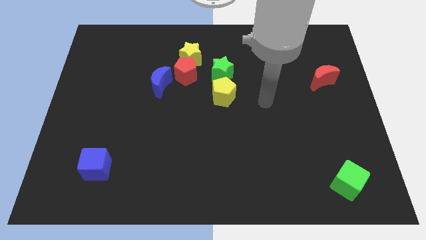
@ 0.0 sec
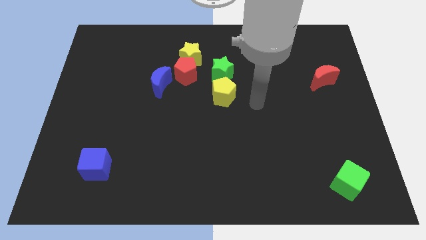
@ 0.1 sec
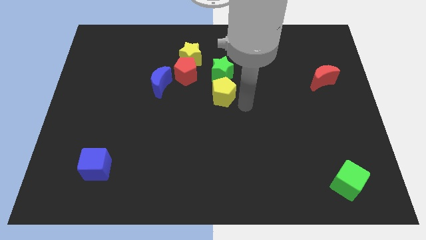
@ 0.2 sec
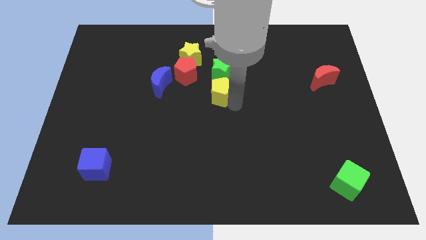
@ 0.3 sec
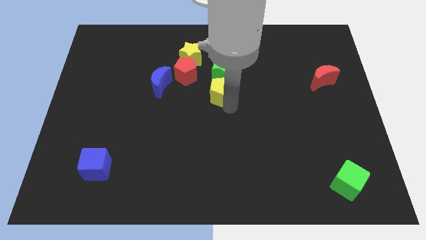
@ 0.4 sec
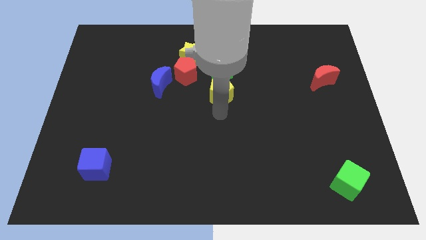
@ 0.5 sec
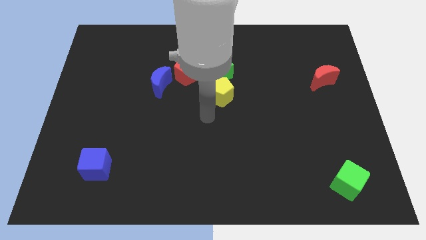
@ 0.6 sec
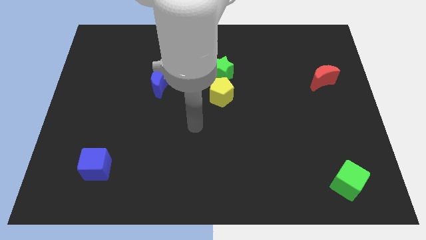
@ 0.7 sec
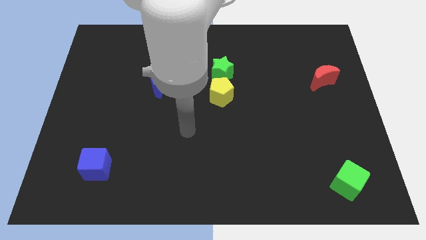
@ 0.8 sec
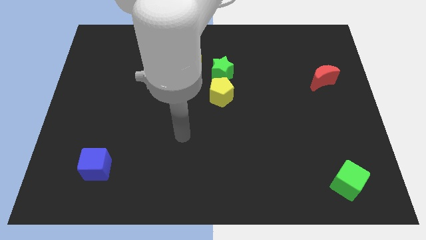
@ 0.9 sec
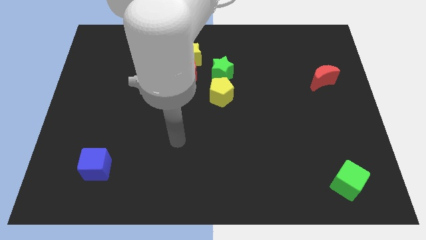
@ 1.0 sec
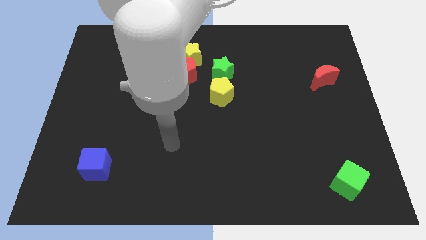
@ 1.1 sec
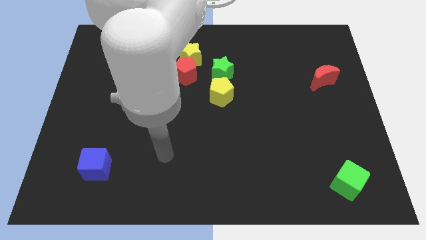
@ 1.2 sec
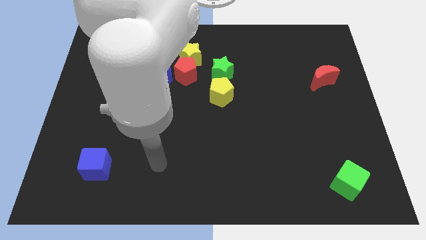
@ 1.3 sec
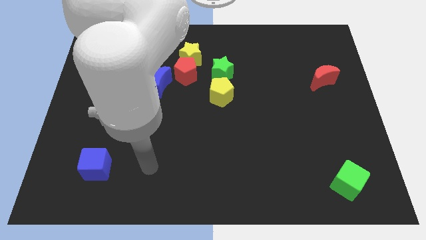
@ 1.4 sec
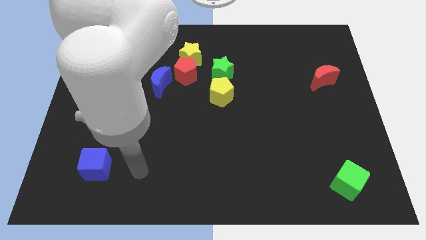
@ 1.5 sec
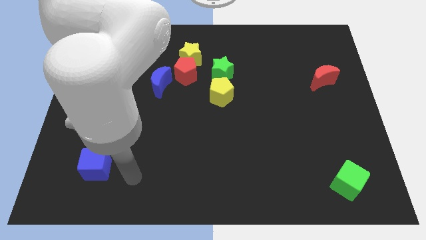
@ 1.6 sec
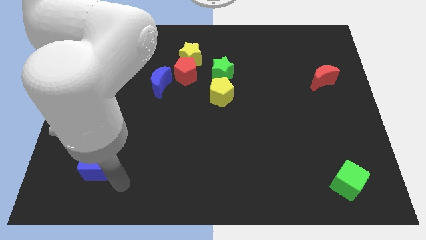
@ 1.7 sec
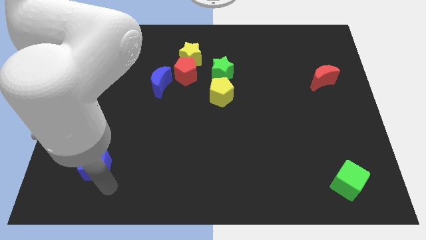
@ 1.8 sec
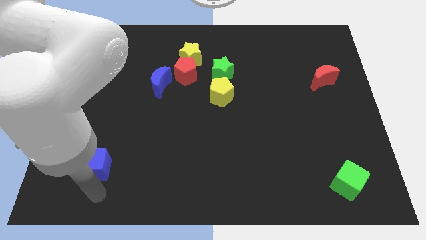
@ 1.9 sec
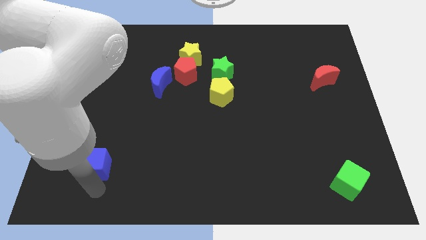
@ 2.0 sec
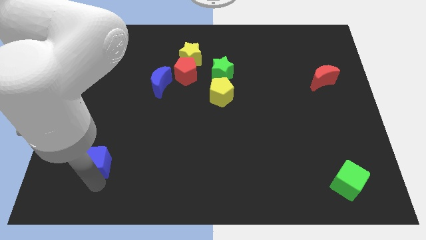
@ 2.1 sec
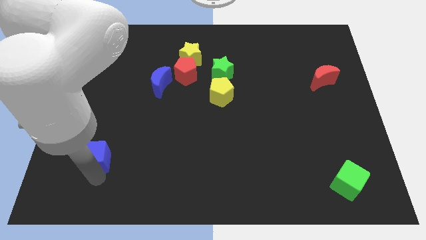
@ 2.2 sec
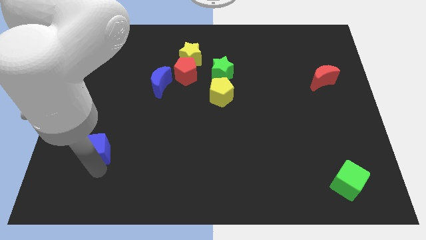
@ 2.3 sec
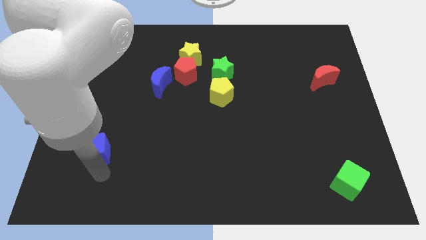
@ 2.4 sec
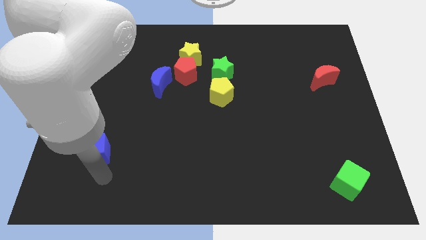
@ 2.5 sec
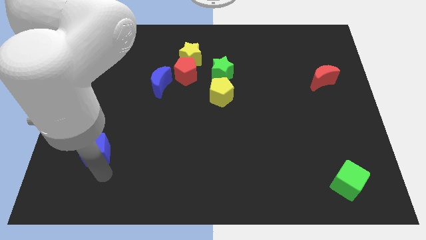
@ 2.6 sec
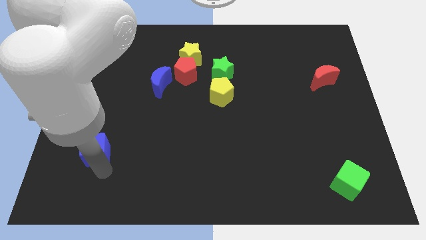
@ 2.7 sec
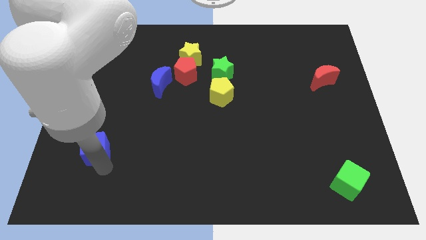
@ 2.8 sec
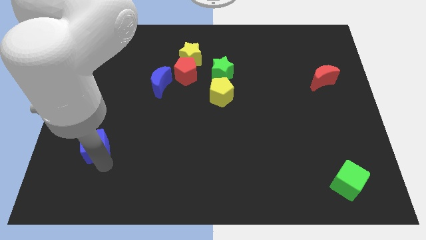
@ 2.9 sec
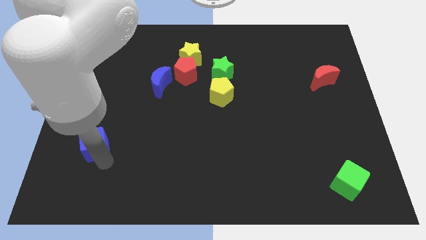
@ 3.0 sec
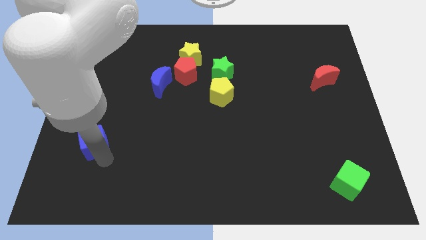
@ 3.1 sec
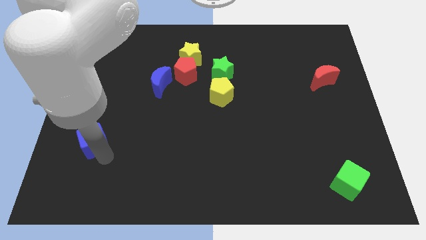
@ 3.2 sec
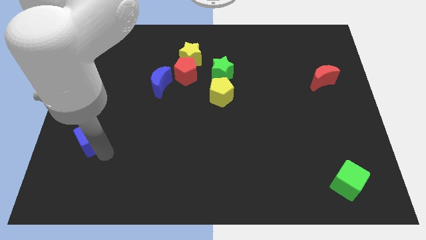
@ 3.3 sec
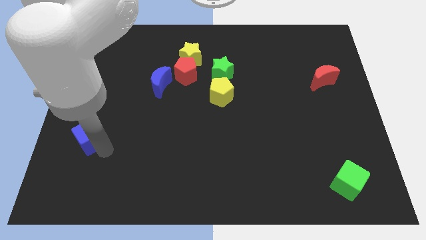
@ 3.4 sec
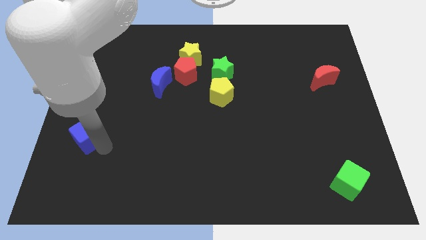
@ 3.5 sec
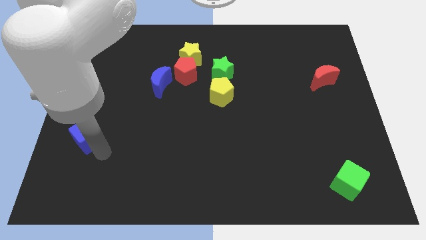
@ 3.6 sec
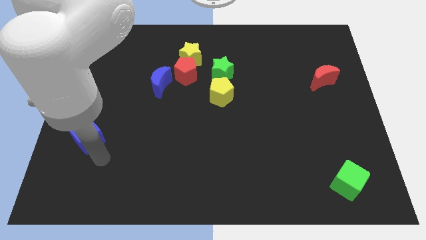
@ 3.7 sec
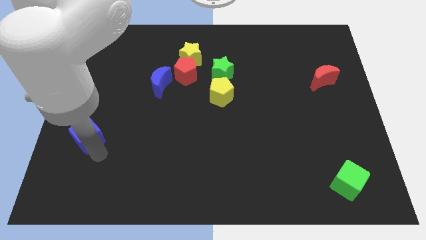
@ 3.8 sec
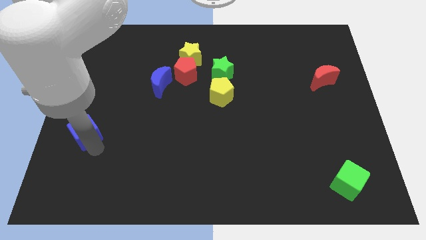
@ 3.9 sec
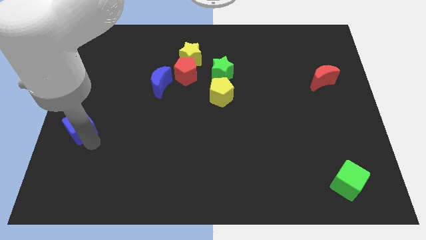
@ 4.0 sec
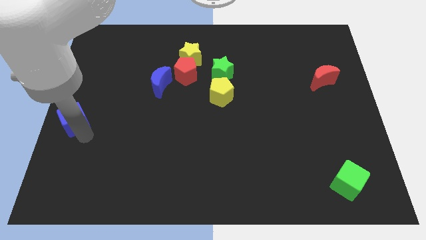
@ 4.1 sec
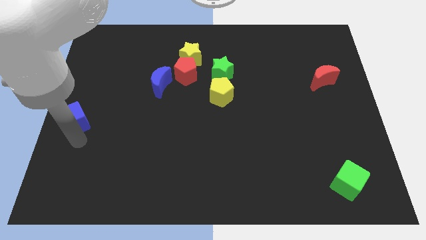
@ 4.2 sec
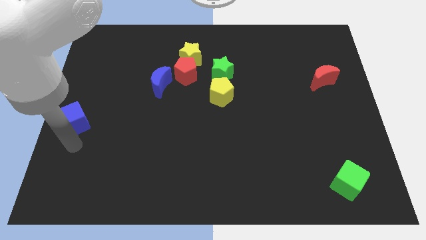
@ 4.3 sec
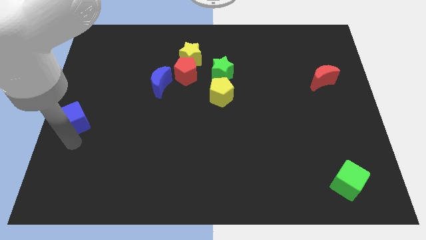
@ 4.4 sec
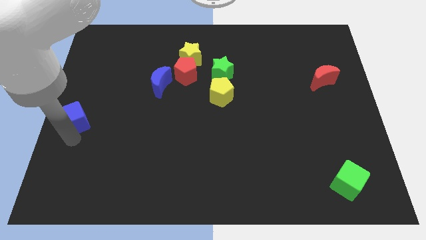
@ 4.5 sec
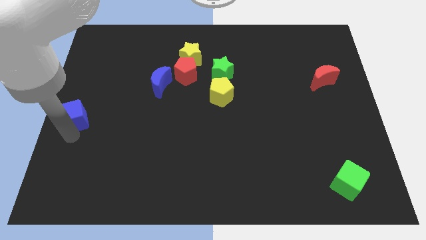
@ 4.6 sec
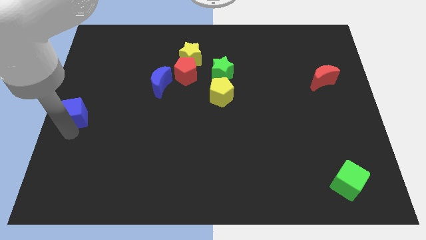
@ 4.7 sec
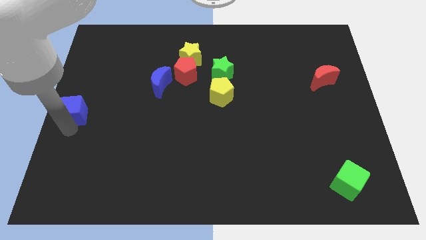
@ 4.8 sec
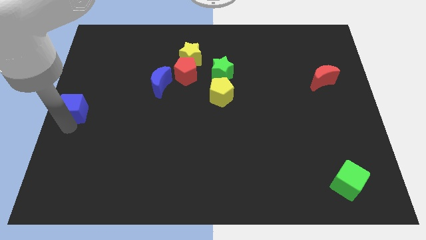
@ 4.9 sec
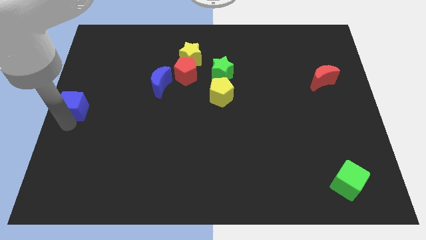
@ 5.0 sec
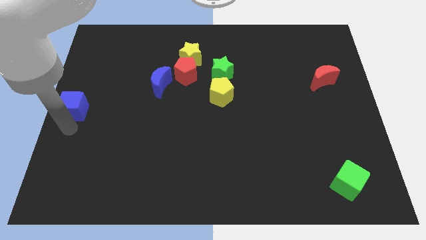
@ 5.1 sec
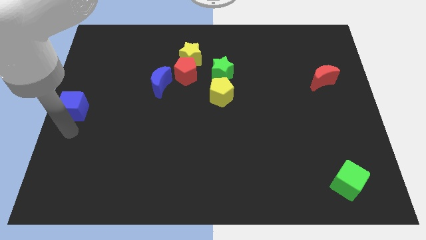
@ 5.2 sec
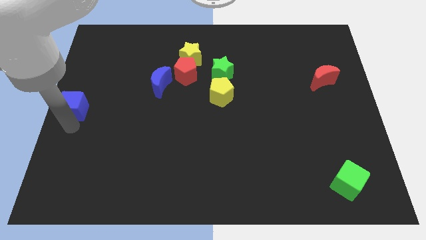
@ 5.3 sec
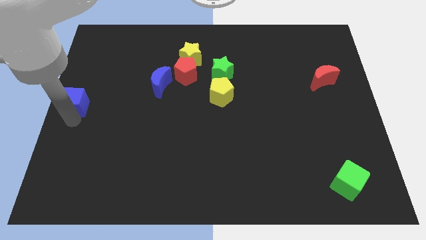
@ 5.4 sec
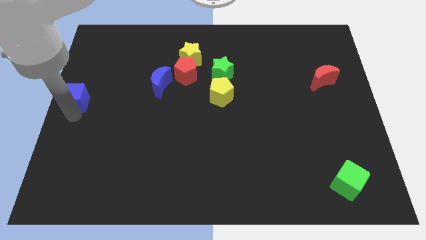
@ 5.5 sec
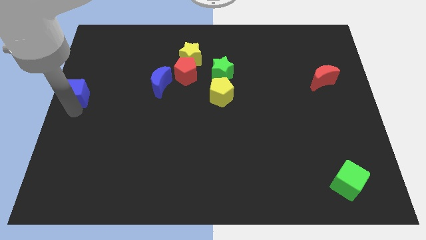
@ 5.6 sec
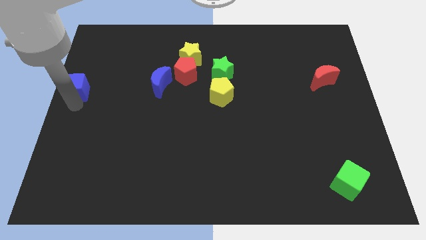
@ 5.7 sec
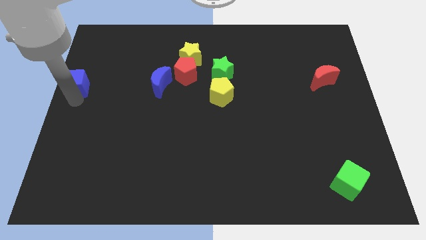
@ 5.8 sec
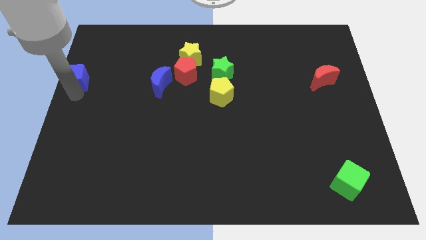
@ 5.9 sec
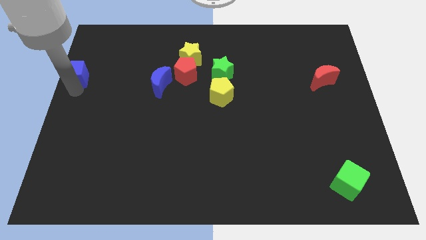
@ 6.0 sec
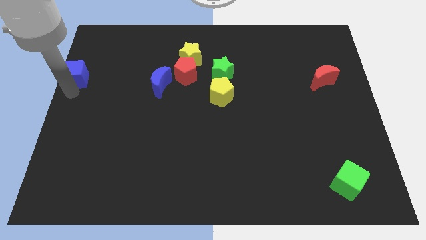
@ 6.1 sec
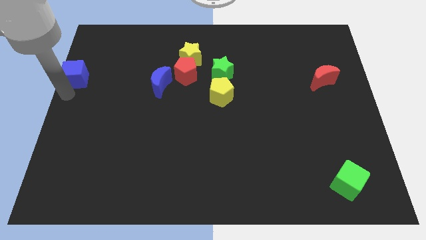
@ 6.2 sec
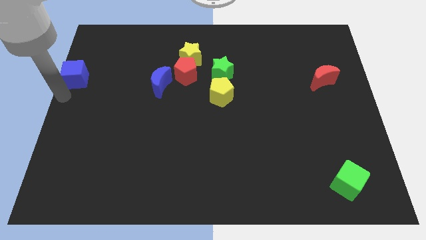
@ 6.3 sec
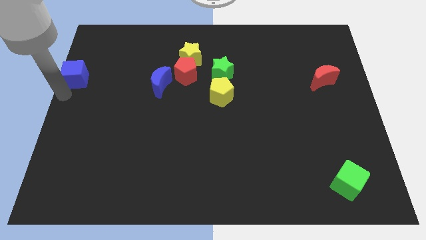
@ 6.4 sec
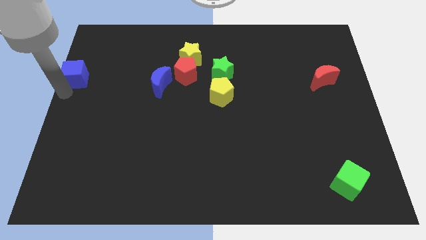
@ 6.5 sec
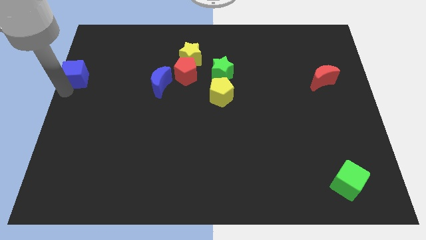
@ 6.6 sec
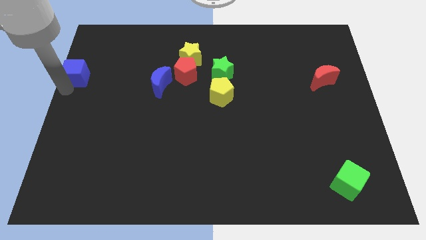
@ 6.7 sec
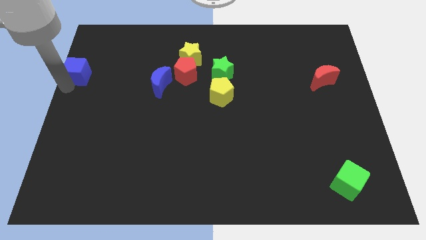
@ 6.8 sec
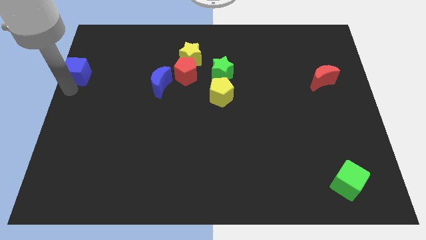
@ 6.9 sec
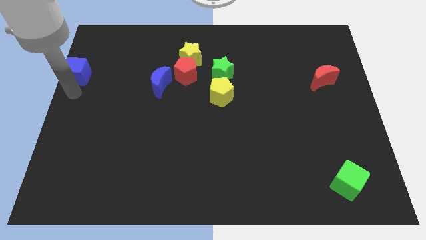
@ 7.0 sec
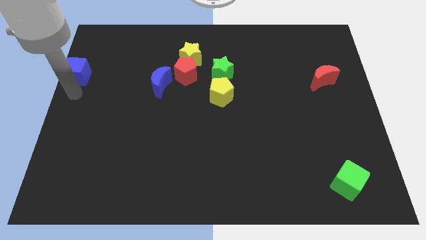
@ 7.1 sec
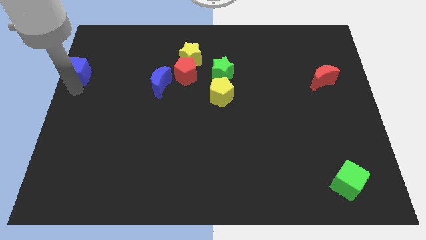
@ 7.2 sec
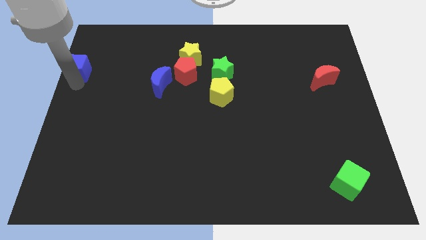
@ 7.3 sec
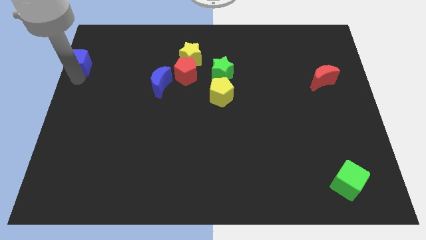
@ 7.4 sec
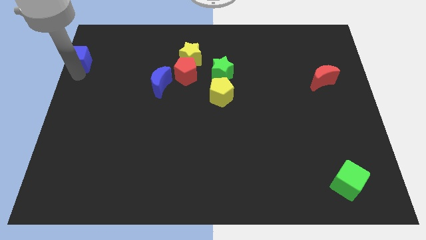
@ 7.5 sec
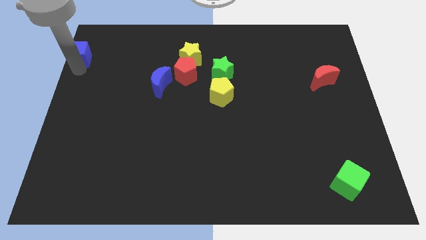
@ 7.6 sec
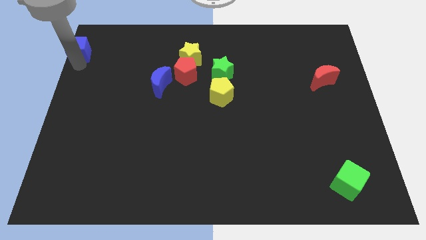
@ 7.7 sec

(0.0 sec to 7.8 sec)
move the blue cube to the top left
